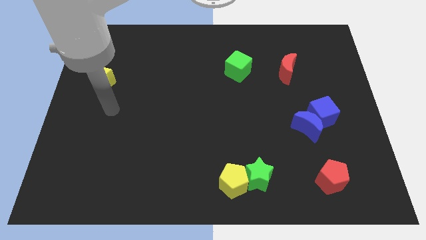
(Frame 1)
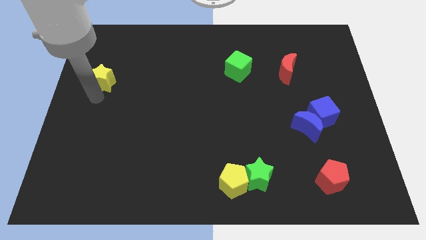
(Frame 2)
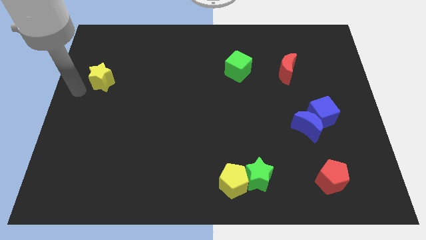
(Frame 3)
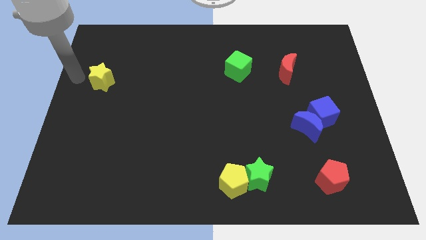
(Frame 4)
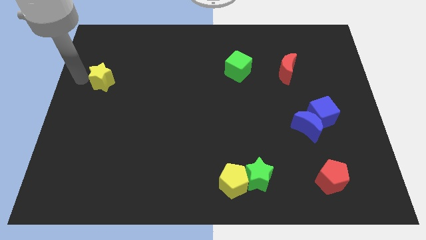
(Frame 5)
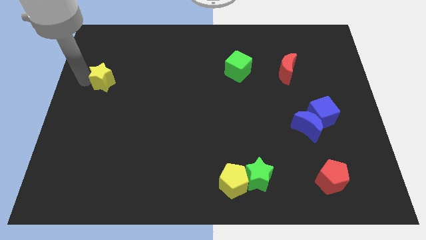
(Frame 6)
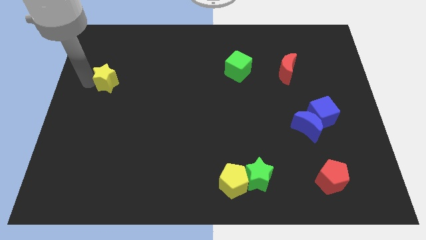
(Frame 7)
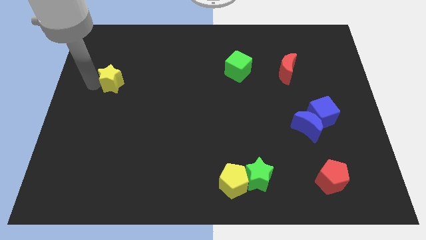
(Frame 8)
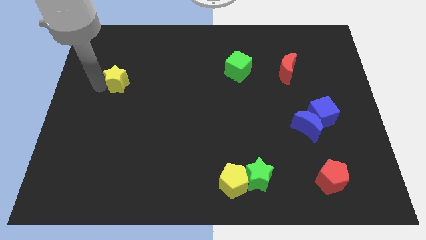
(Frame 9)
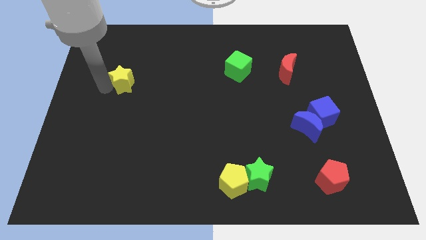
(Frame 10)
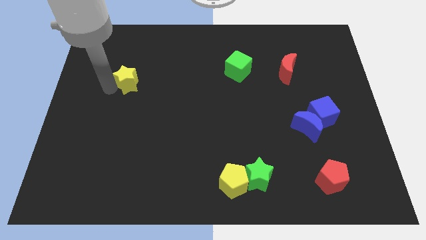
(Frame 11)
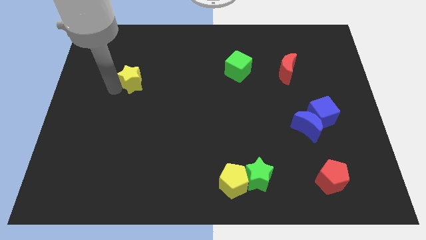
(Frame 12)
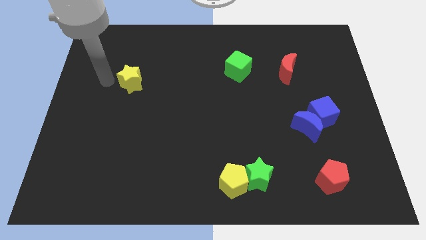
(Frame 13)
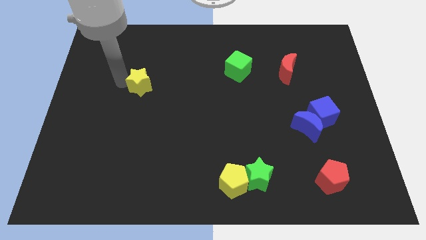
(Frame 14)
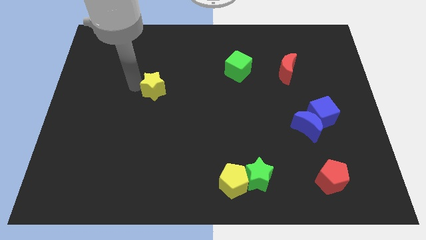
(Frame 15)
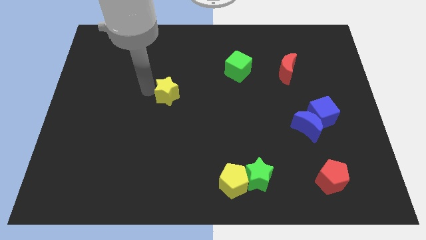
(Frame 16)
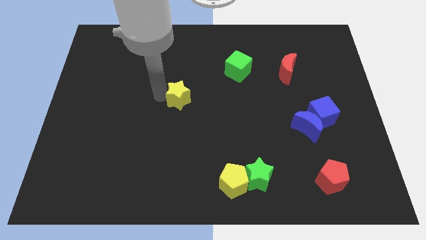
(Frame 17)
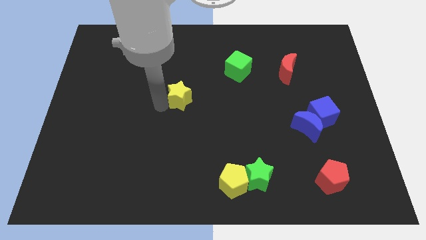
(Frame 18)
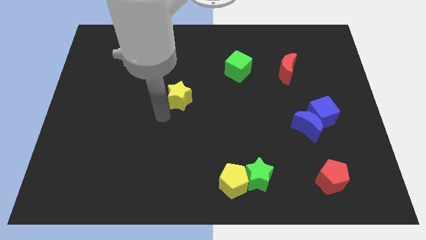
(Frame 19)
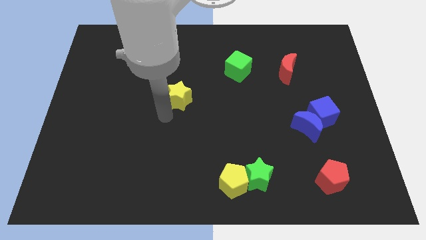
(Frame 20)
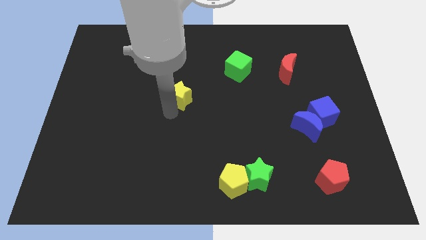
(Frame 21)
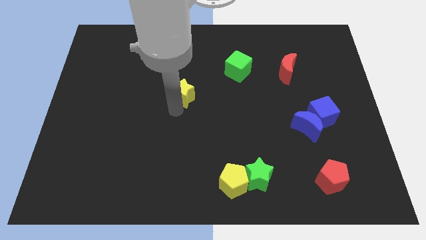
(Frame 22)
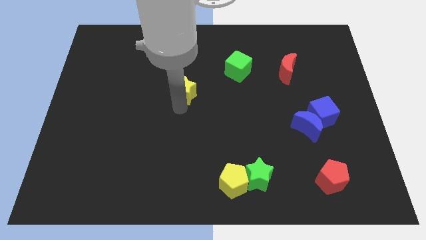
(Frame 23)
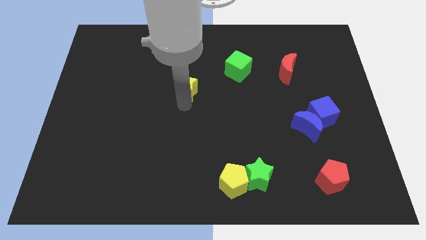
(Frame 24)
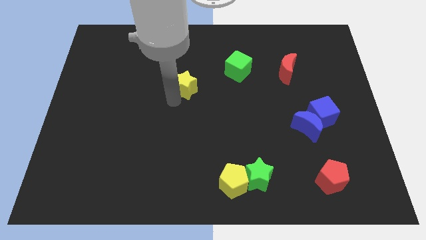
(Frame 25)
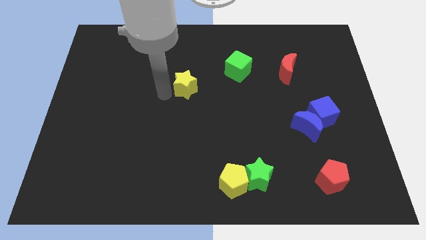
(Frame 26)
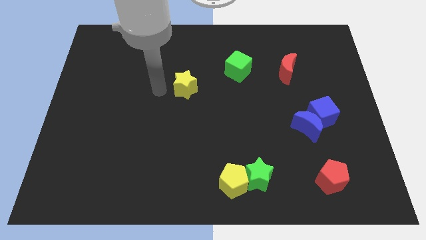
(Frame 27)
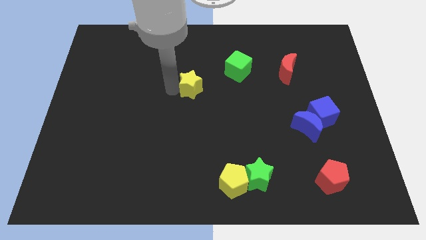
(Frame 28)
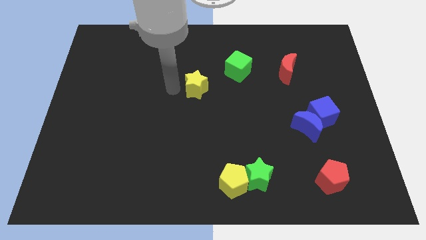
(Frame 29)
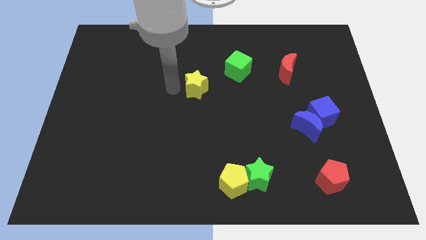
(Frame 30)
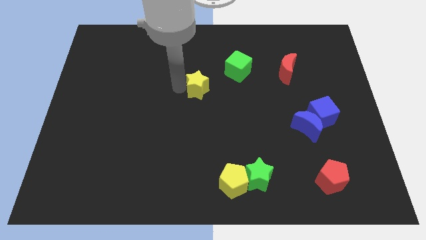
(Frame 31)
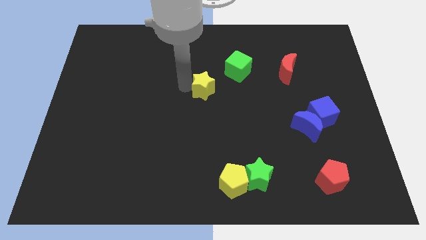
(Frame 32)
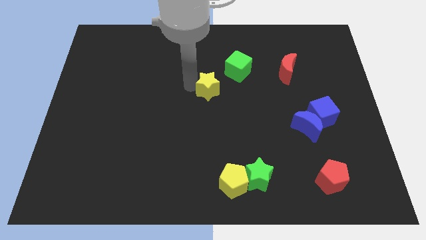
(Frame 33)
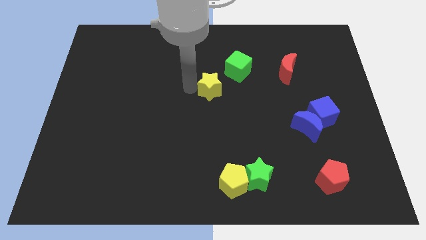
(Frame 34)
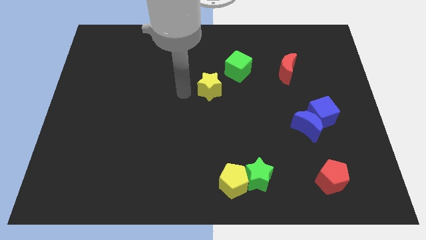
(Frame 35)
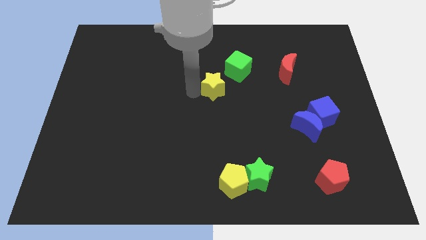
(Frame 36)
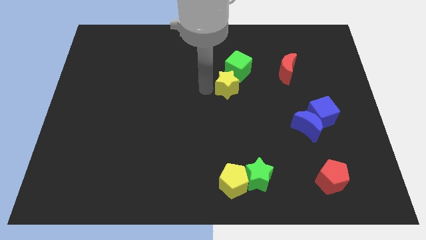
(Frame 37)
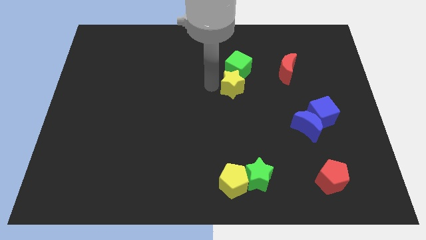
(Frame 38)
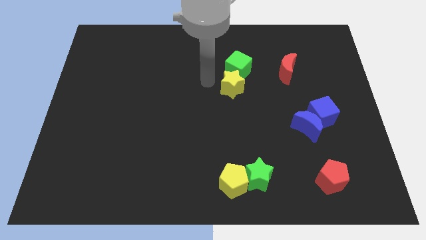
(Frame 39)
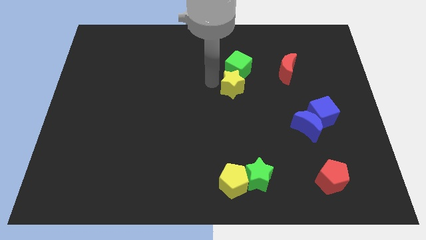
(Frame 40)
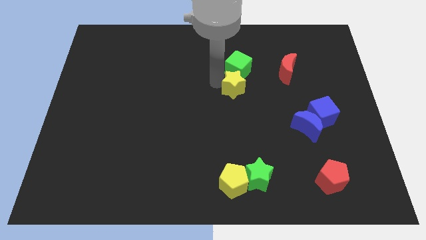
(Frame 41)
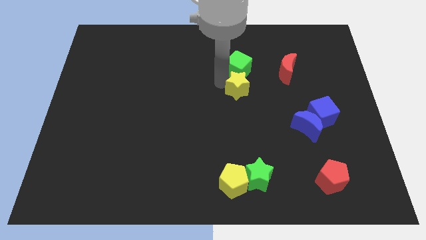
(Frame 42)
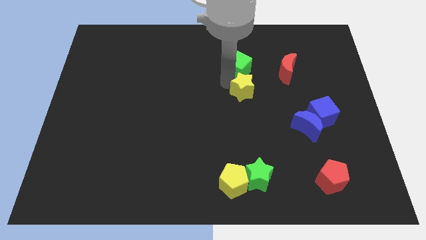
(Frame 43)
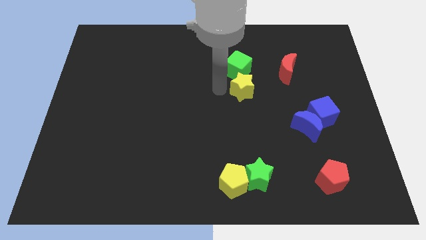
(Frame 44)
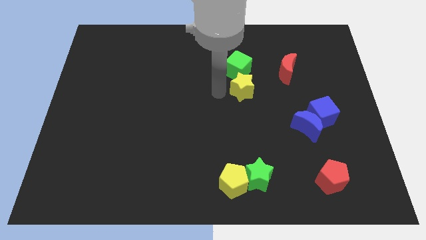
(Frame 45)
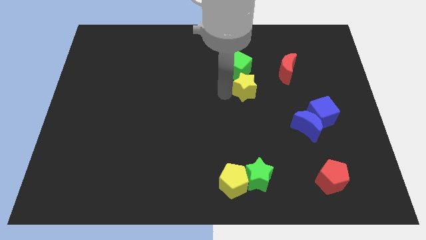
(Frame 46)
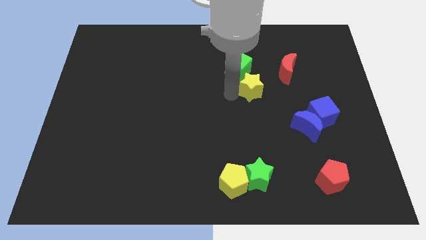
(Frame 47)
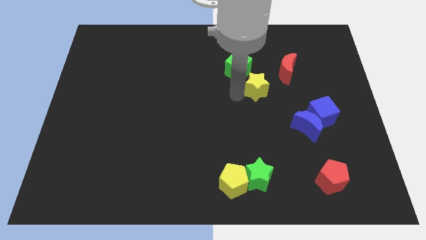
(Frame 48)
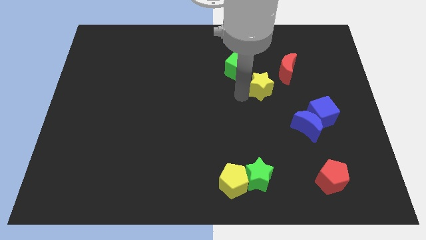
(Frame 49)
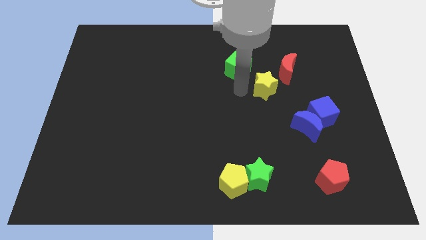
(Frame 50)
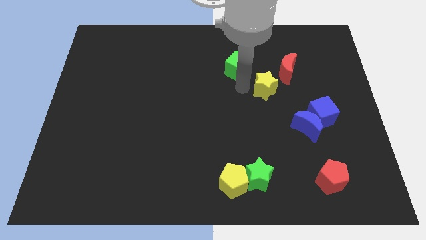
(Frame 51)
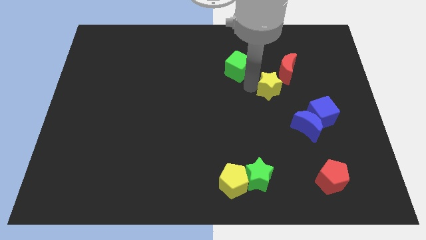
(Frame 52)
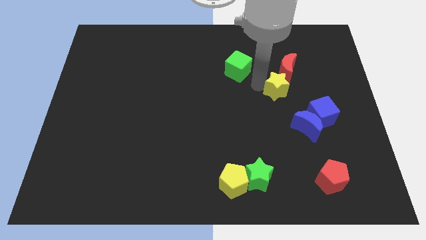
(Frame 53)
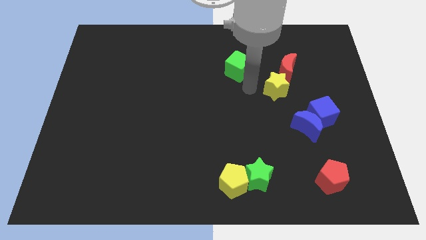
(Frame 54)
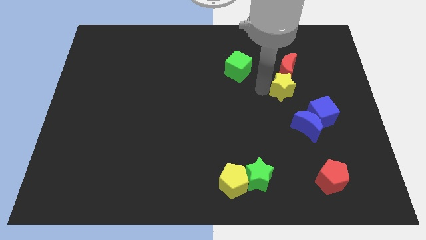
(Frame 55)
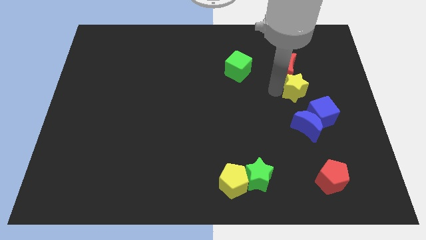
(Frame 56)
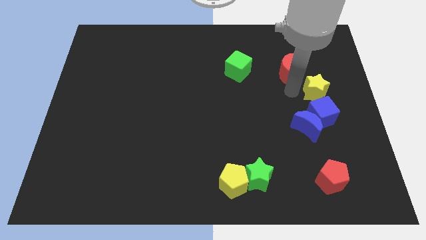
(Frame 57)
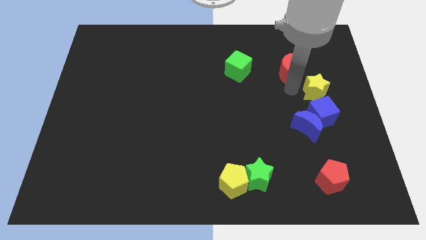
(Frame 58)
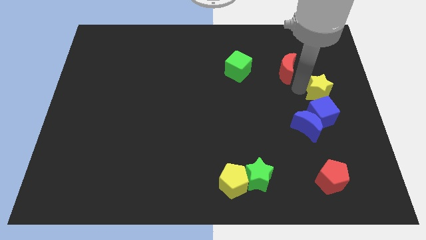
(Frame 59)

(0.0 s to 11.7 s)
move the yellow star to the right side of the board
